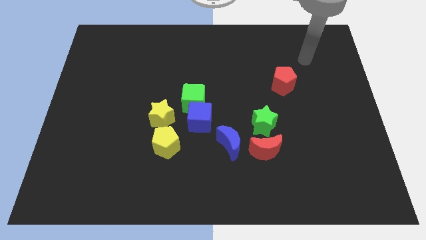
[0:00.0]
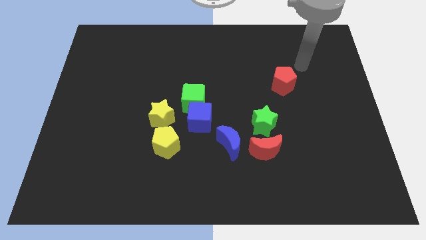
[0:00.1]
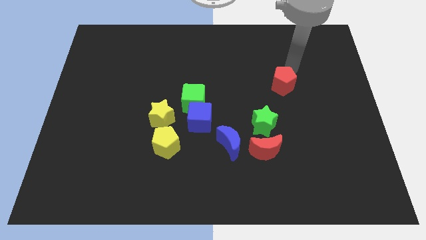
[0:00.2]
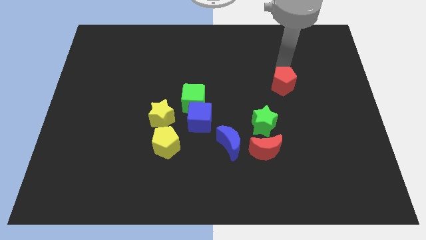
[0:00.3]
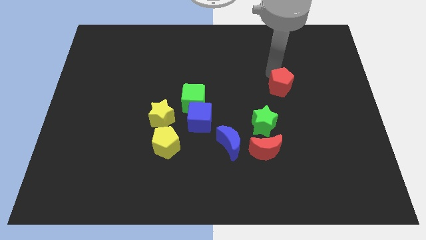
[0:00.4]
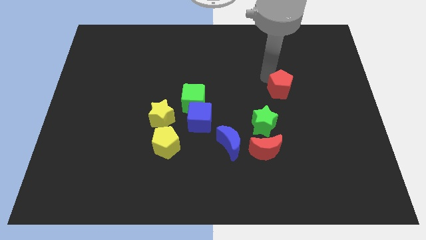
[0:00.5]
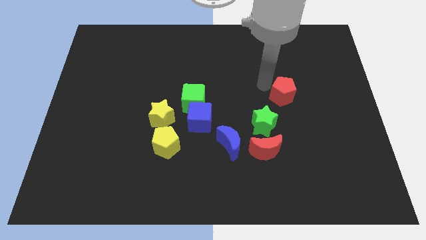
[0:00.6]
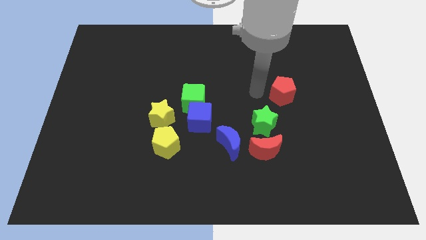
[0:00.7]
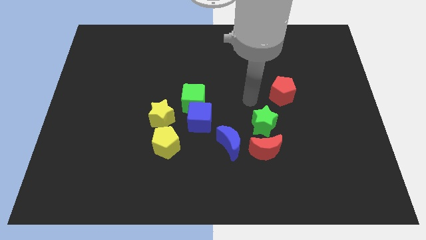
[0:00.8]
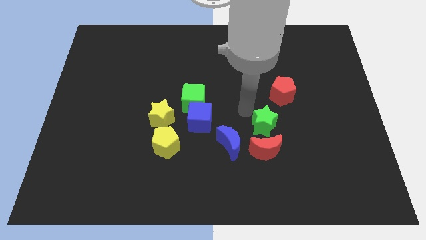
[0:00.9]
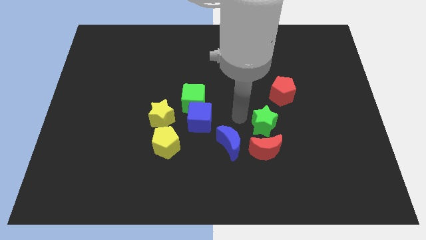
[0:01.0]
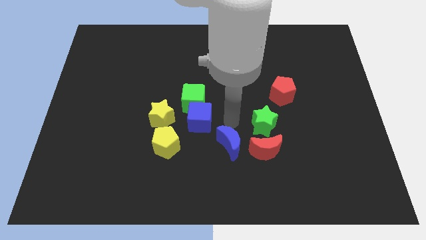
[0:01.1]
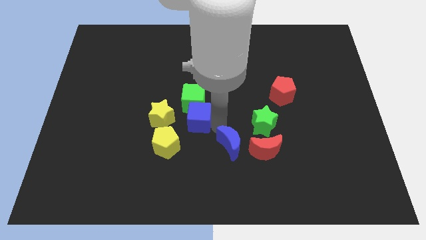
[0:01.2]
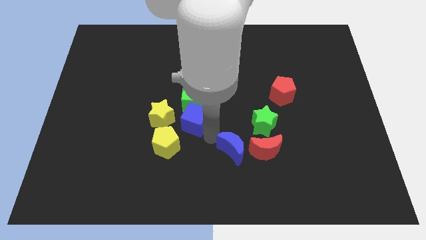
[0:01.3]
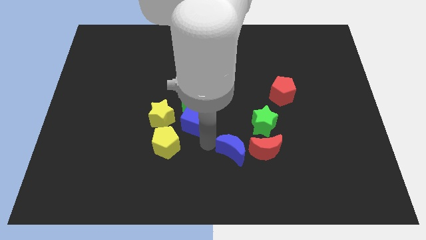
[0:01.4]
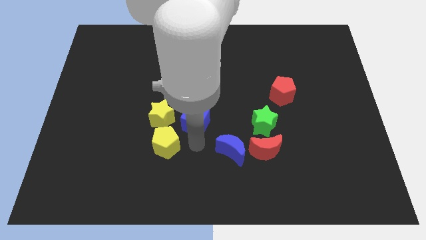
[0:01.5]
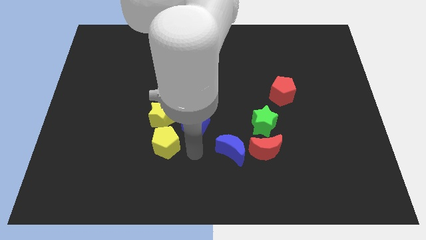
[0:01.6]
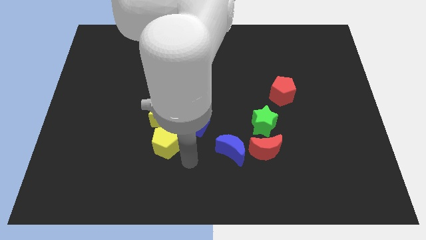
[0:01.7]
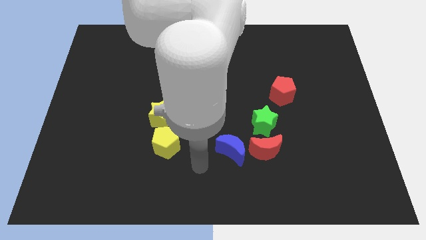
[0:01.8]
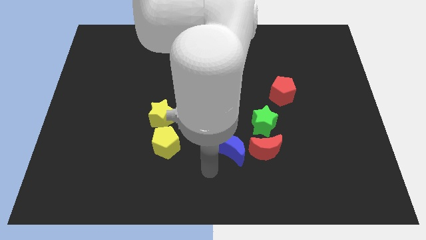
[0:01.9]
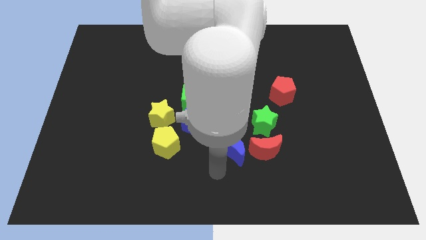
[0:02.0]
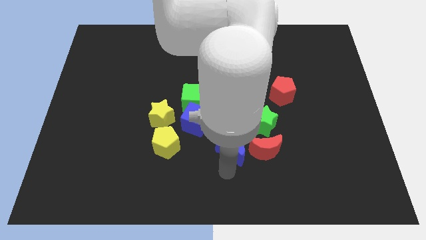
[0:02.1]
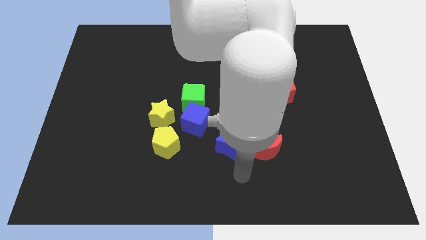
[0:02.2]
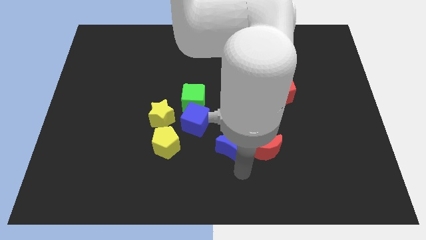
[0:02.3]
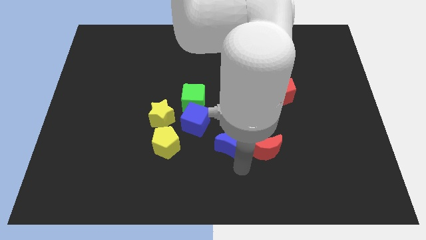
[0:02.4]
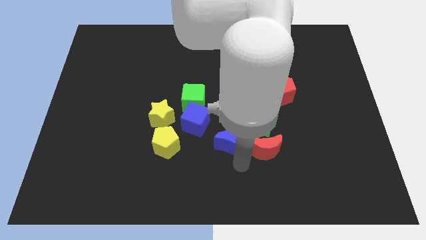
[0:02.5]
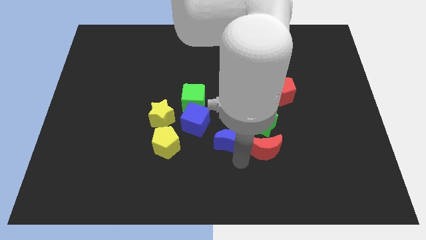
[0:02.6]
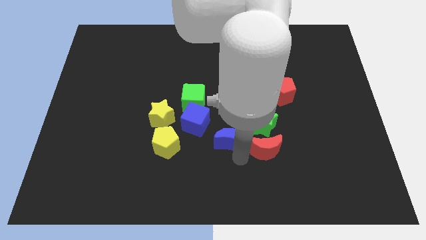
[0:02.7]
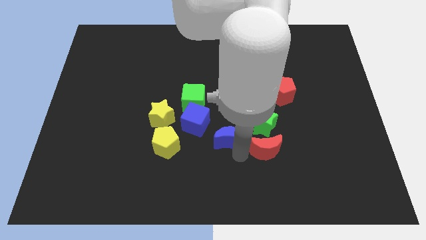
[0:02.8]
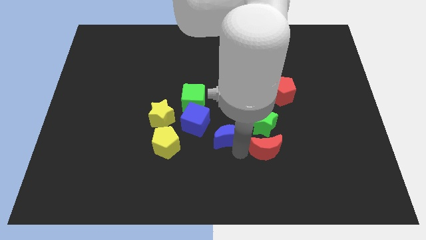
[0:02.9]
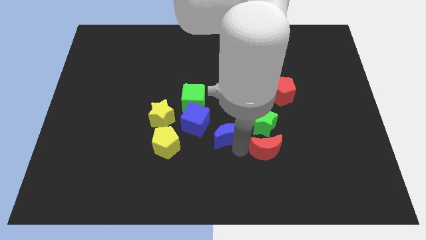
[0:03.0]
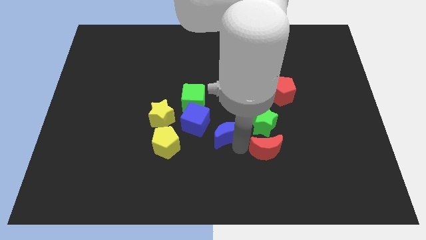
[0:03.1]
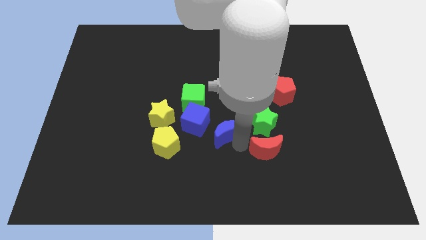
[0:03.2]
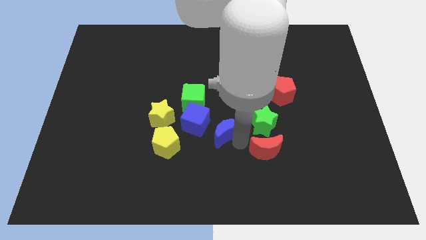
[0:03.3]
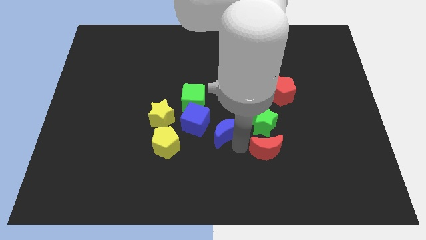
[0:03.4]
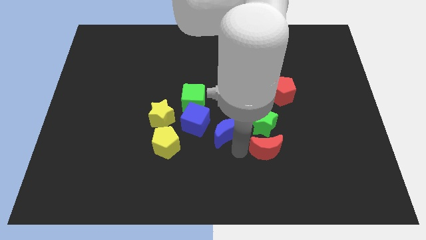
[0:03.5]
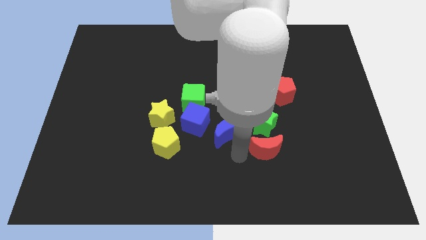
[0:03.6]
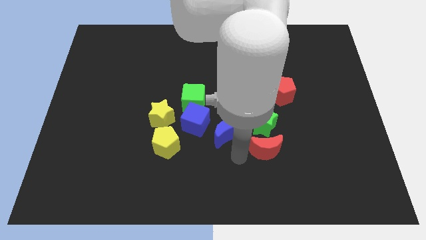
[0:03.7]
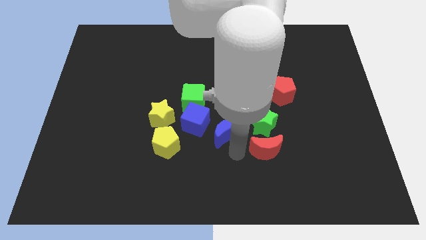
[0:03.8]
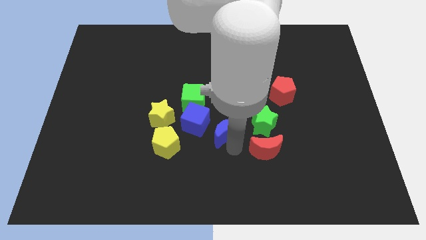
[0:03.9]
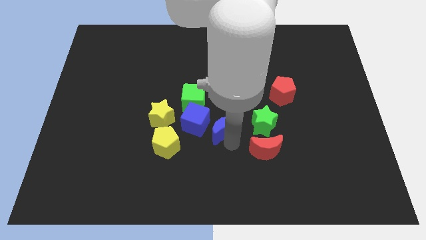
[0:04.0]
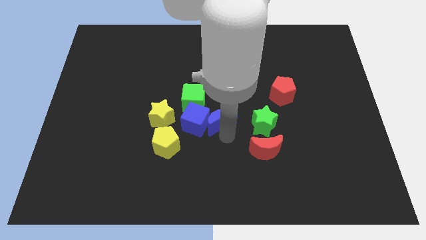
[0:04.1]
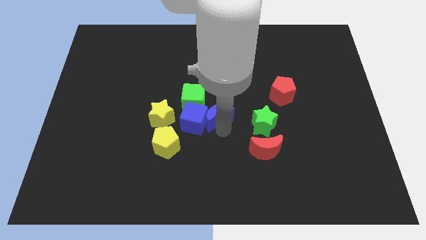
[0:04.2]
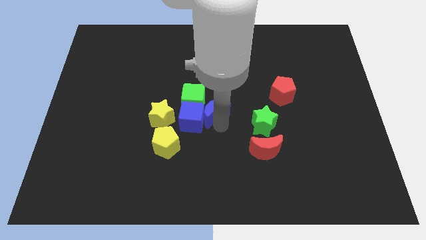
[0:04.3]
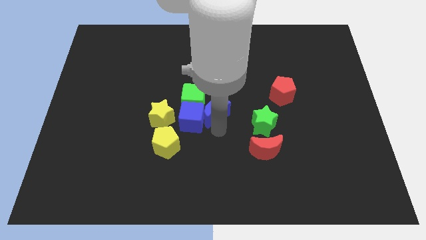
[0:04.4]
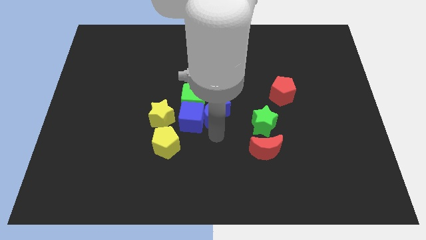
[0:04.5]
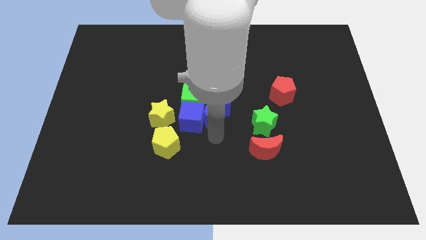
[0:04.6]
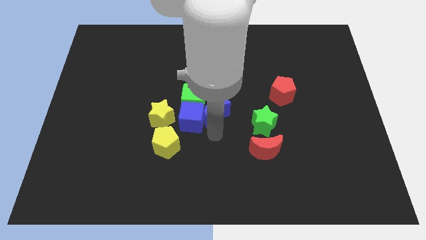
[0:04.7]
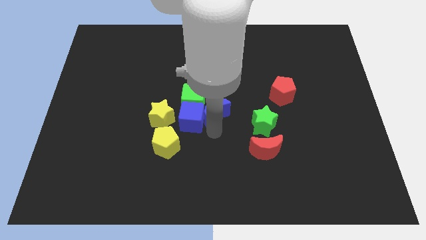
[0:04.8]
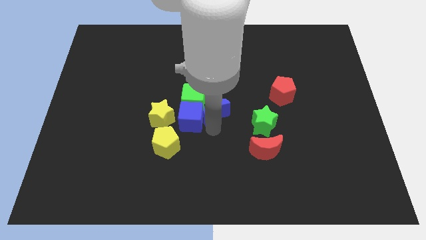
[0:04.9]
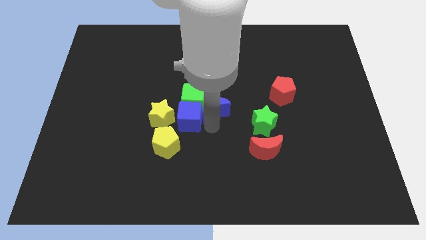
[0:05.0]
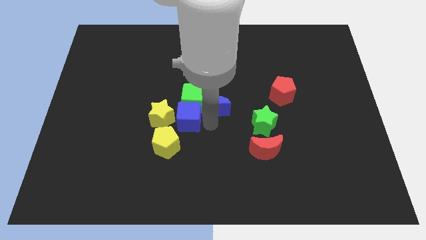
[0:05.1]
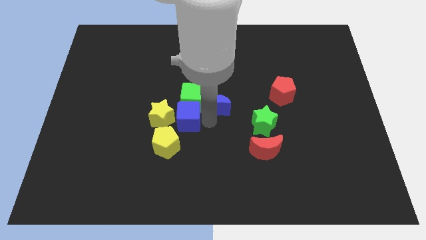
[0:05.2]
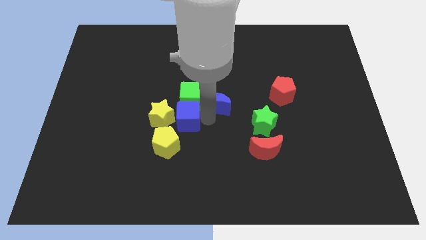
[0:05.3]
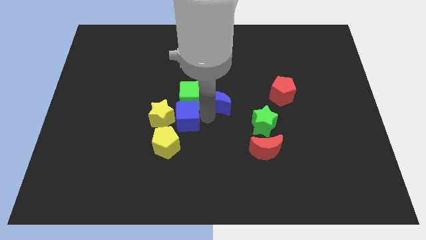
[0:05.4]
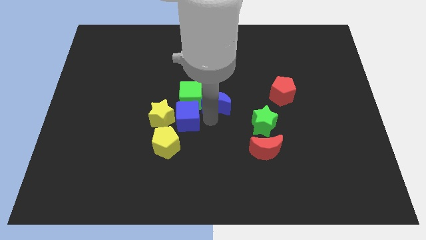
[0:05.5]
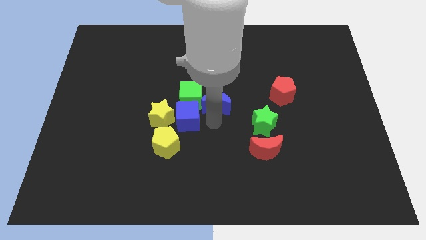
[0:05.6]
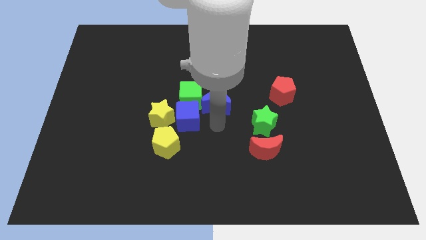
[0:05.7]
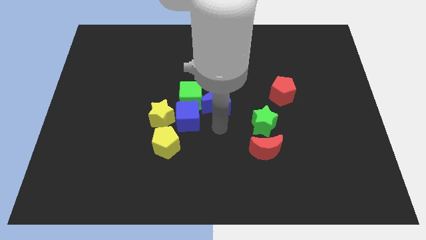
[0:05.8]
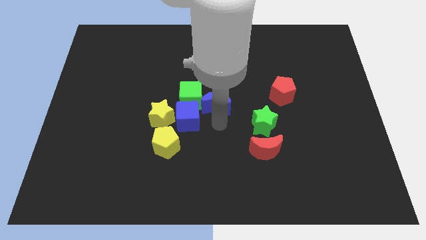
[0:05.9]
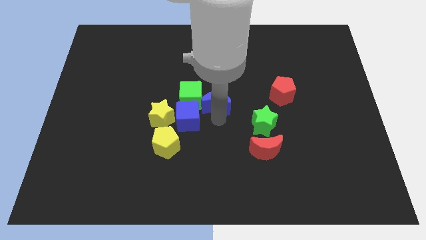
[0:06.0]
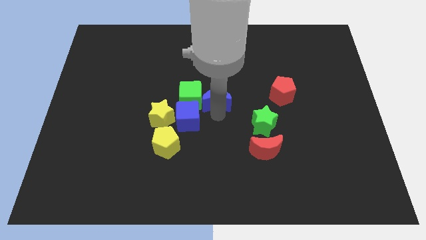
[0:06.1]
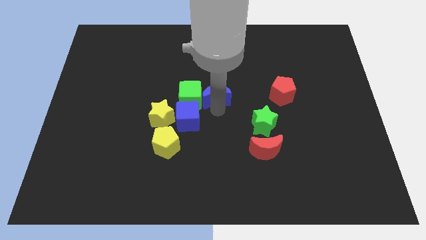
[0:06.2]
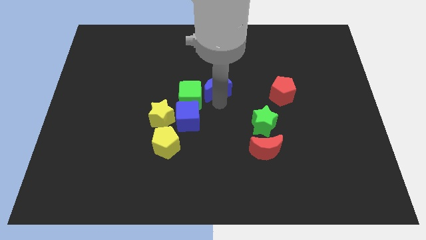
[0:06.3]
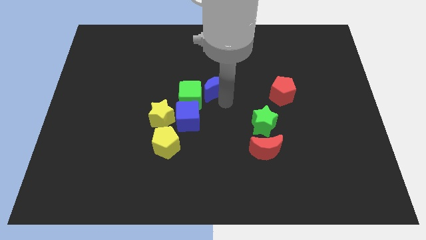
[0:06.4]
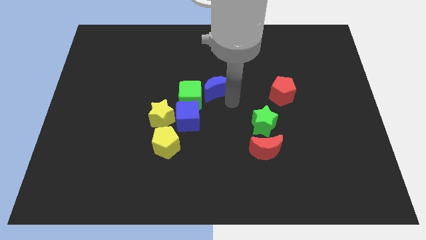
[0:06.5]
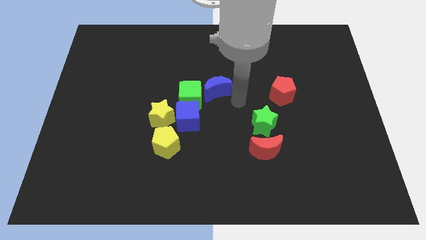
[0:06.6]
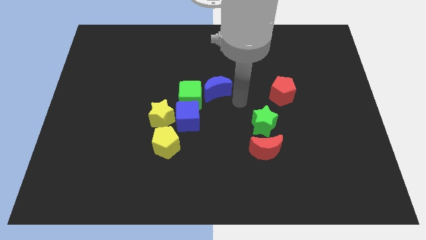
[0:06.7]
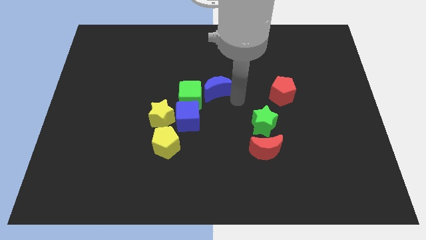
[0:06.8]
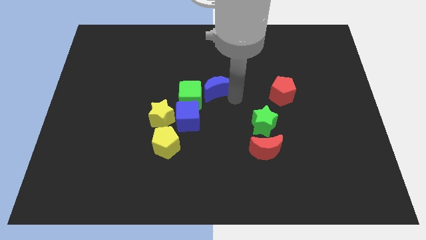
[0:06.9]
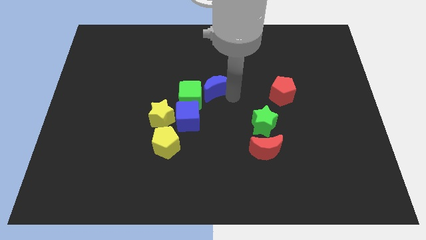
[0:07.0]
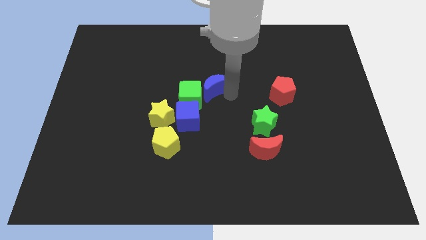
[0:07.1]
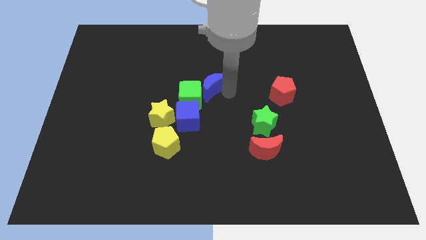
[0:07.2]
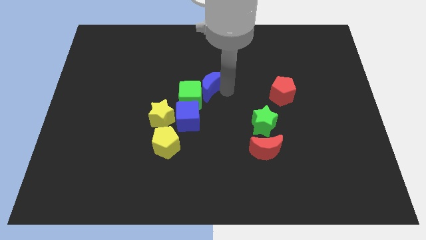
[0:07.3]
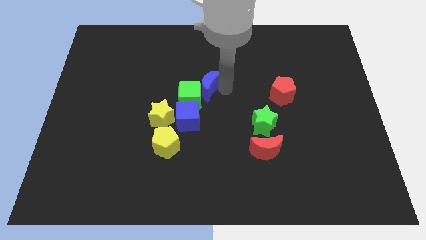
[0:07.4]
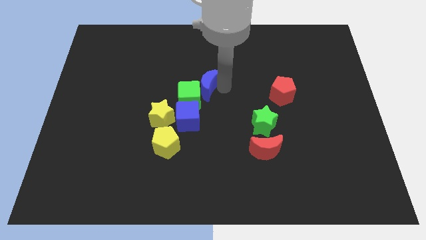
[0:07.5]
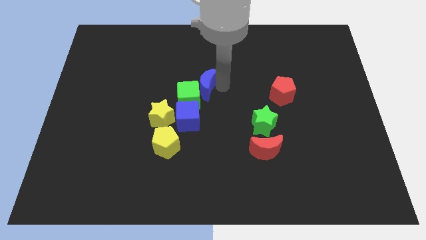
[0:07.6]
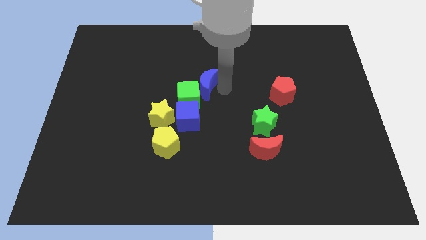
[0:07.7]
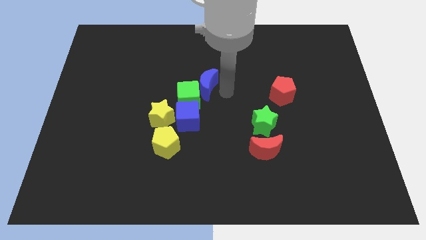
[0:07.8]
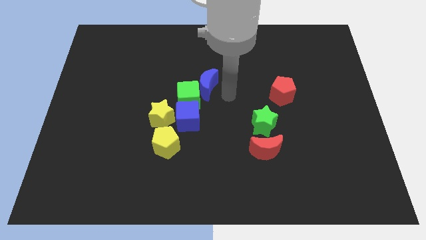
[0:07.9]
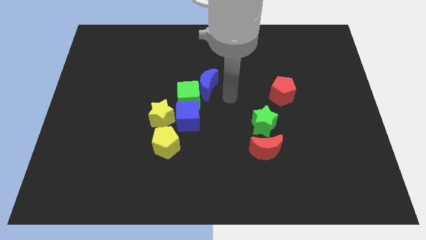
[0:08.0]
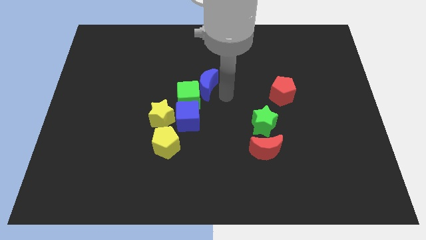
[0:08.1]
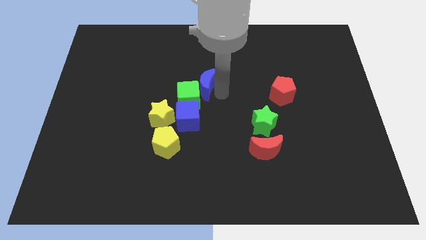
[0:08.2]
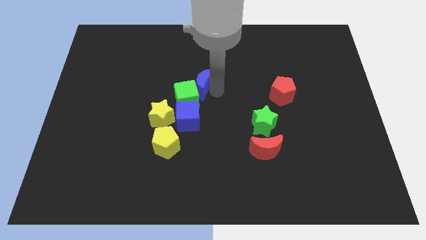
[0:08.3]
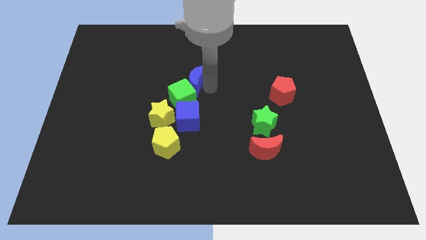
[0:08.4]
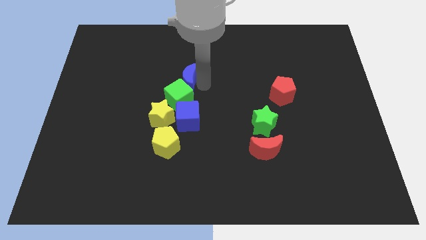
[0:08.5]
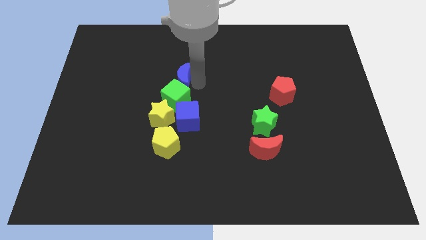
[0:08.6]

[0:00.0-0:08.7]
move the blue moon up and then left
